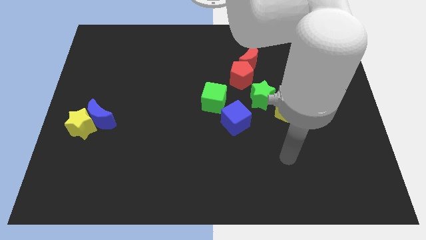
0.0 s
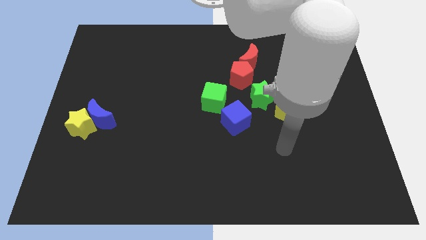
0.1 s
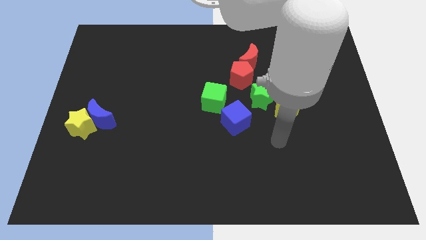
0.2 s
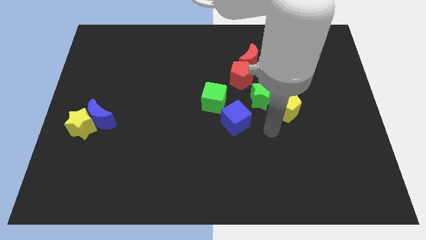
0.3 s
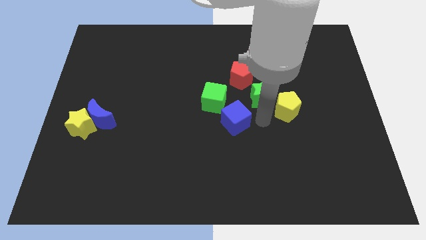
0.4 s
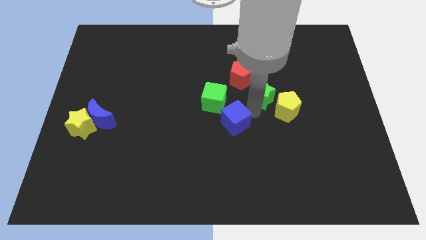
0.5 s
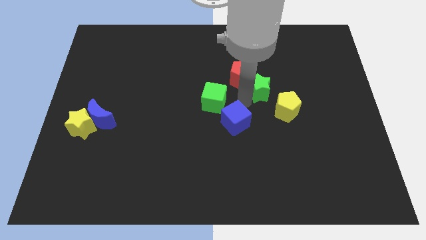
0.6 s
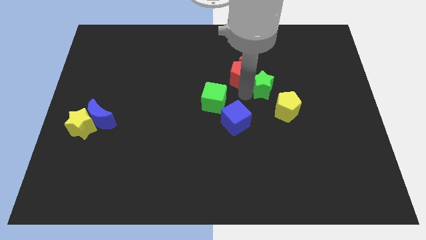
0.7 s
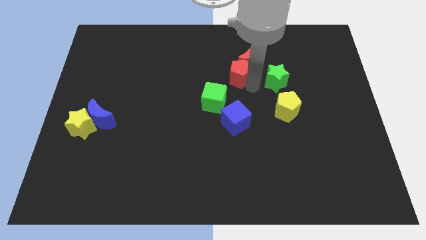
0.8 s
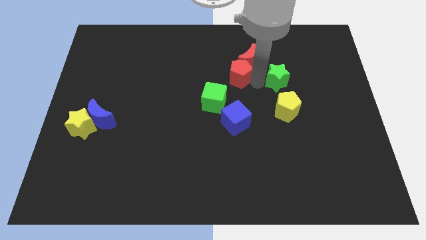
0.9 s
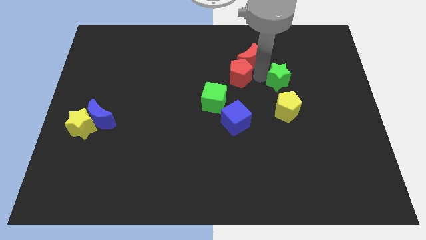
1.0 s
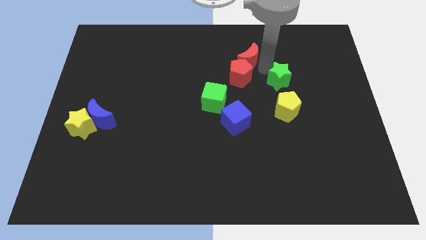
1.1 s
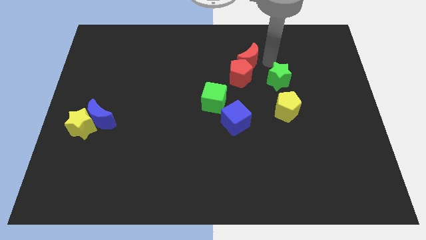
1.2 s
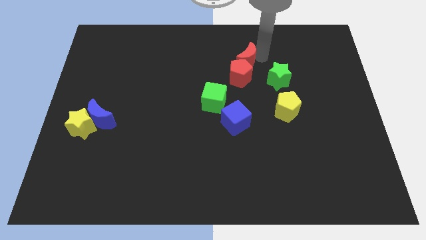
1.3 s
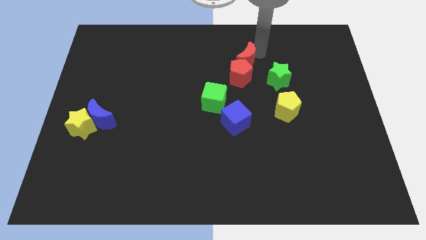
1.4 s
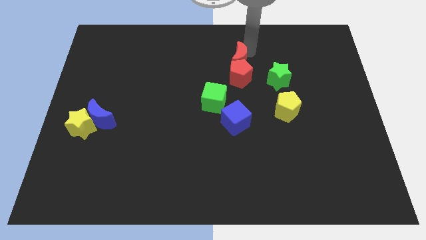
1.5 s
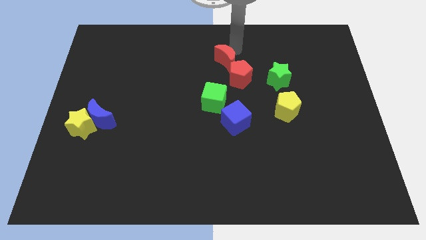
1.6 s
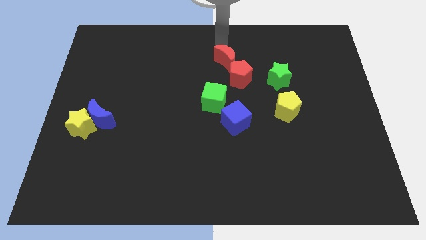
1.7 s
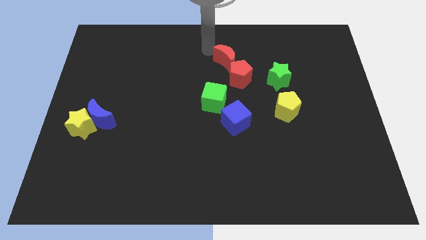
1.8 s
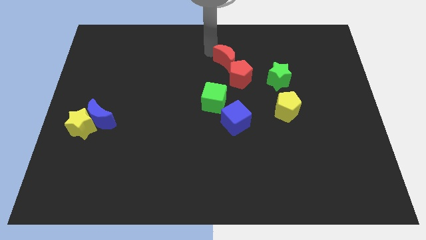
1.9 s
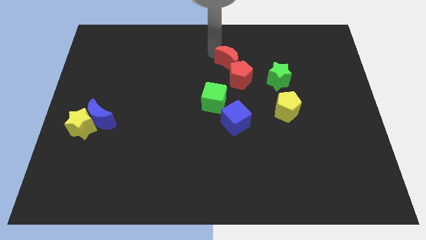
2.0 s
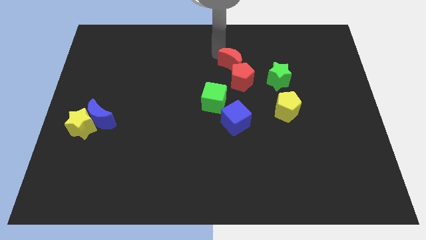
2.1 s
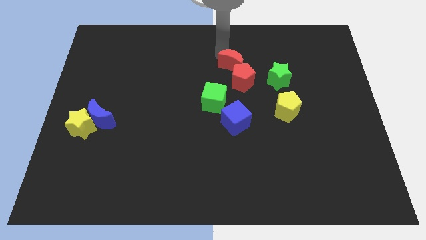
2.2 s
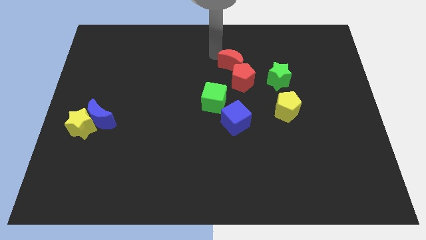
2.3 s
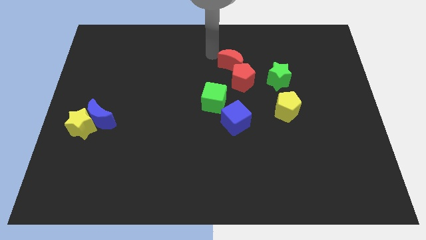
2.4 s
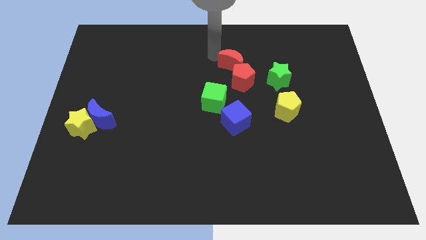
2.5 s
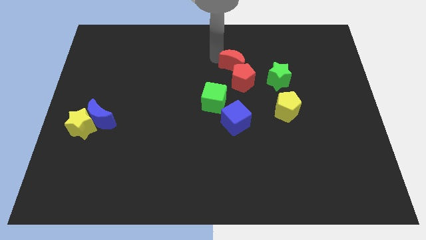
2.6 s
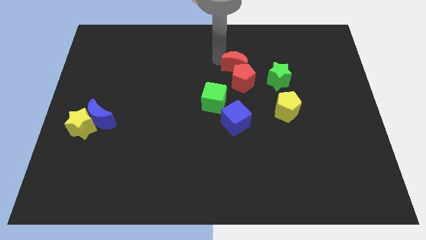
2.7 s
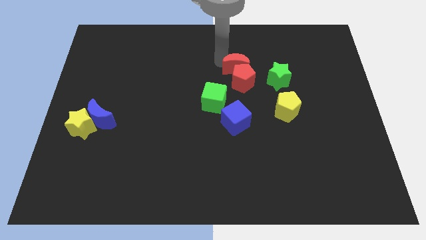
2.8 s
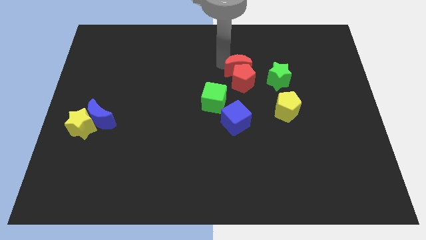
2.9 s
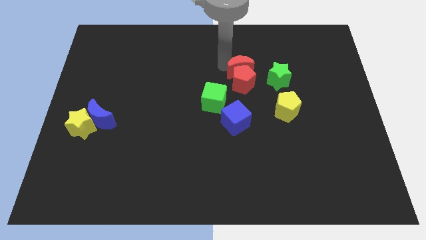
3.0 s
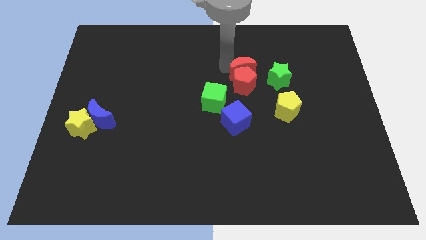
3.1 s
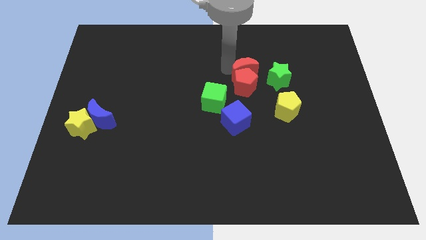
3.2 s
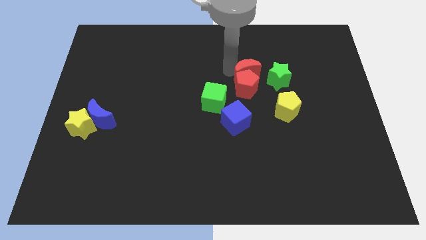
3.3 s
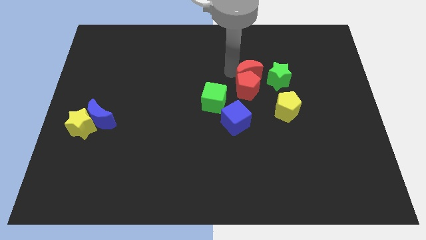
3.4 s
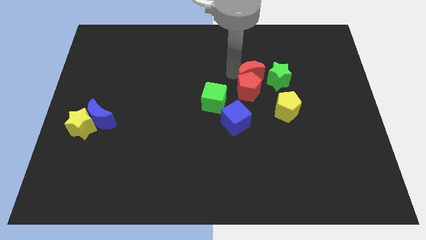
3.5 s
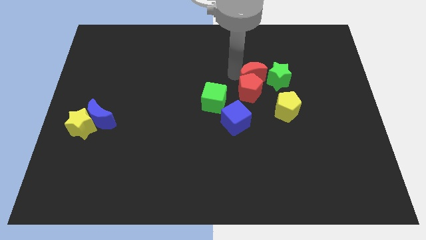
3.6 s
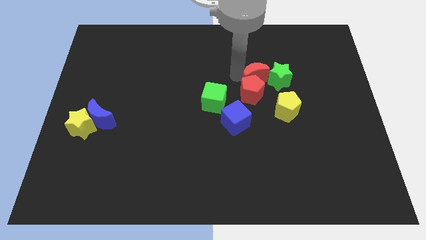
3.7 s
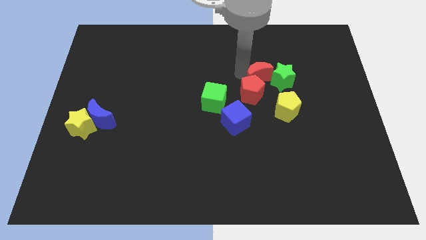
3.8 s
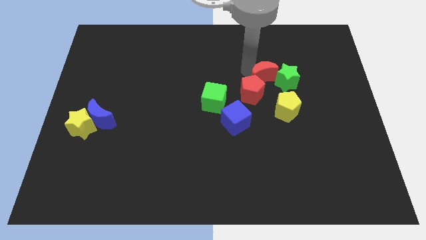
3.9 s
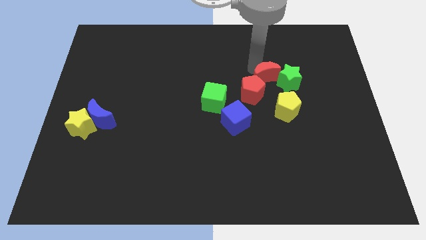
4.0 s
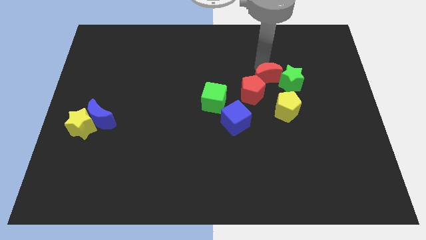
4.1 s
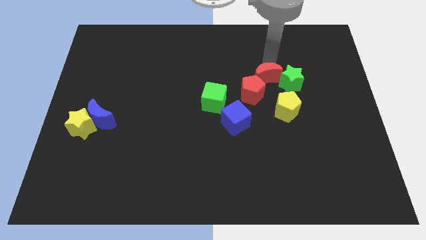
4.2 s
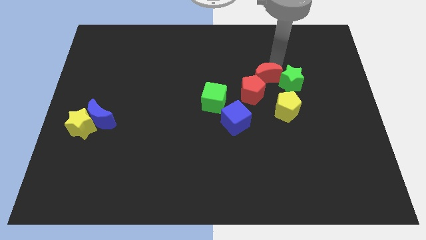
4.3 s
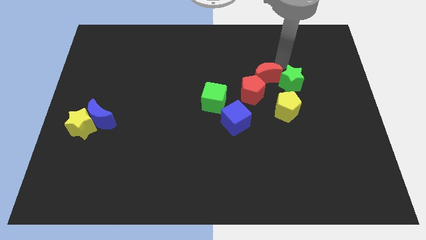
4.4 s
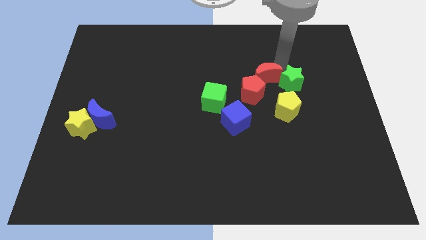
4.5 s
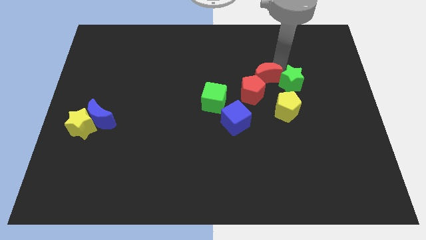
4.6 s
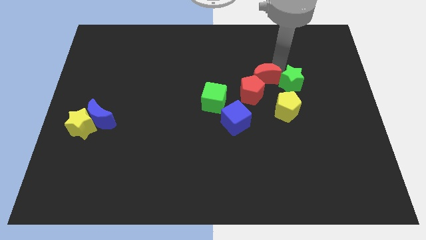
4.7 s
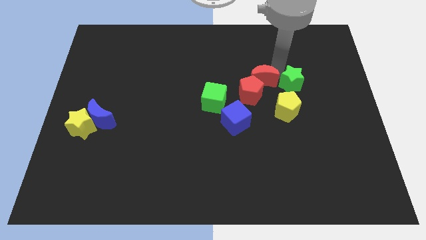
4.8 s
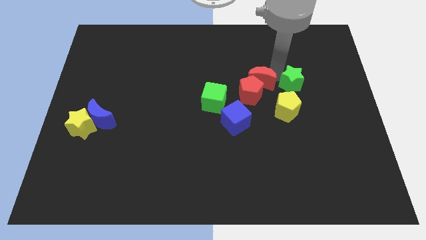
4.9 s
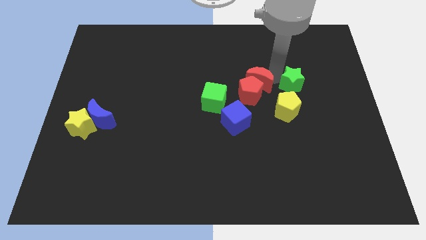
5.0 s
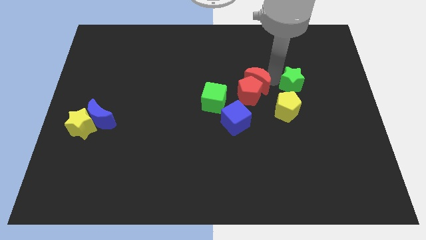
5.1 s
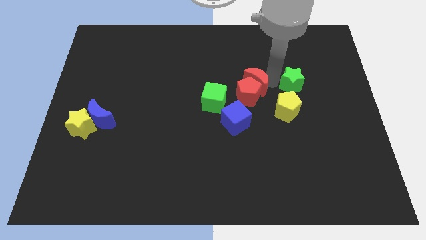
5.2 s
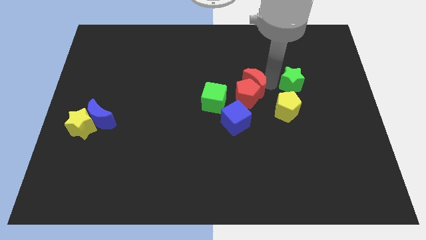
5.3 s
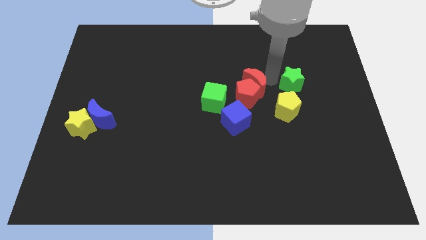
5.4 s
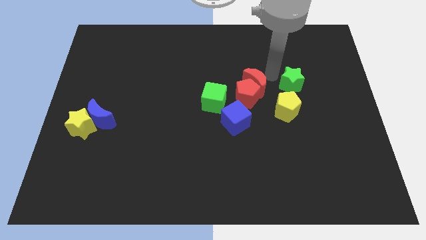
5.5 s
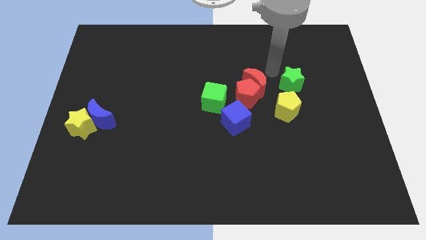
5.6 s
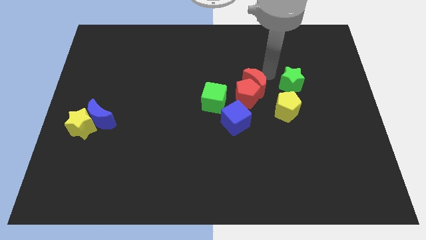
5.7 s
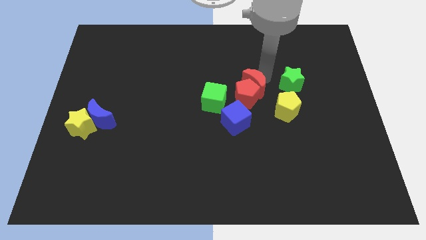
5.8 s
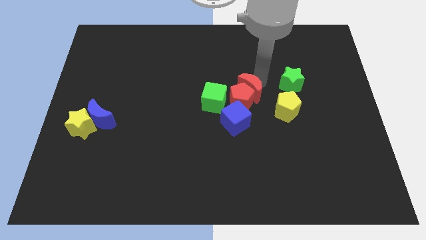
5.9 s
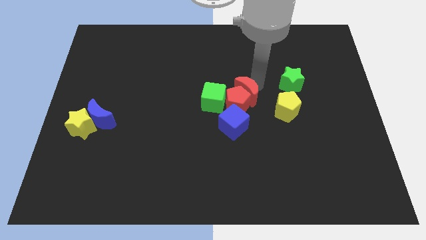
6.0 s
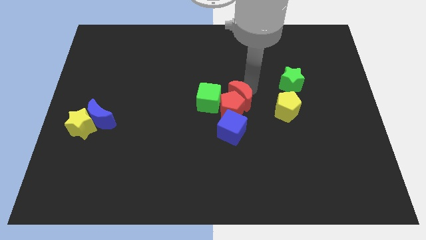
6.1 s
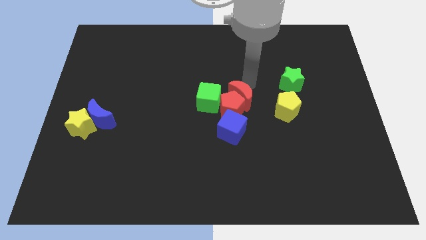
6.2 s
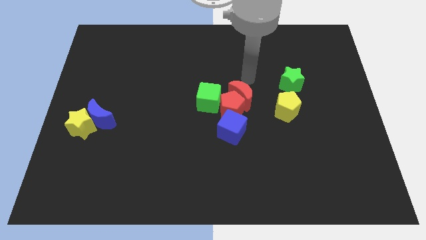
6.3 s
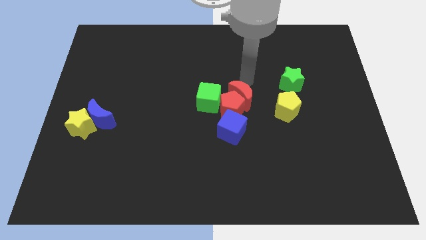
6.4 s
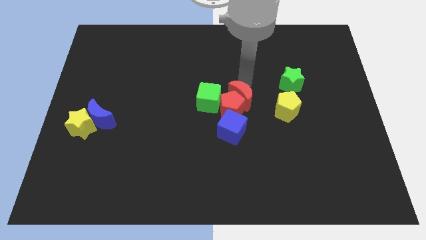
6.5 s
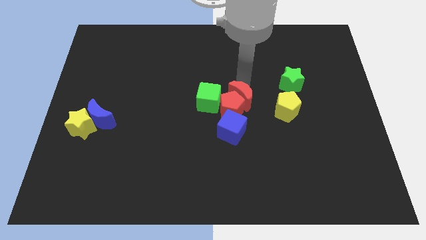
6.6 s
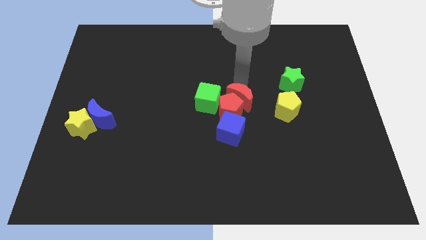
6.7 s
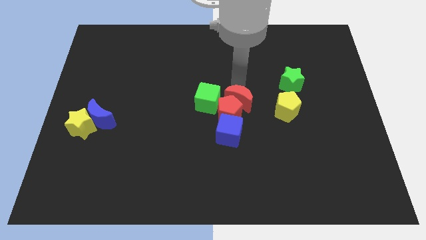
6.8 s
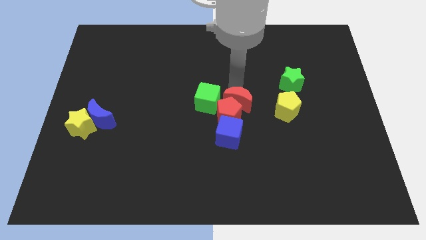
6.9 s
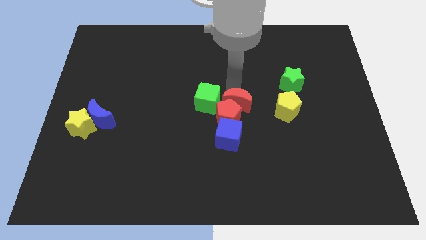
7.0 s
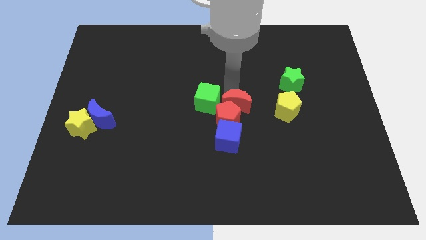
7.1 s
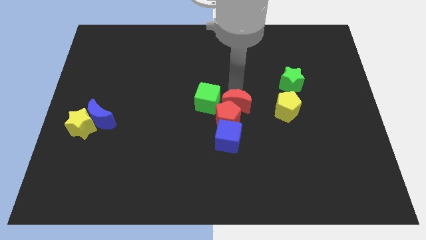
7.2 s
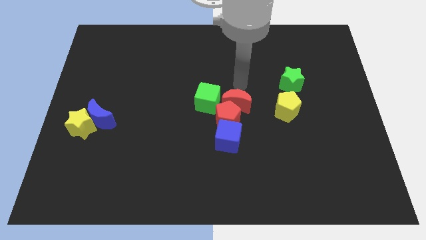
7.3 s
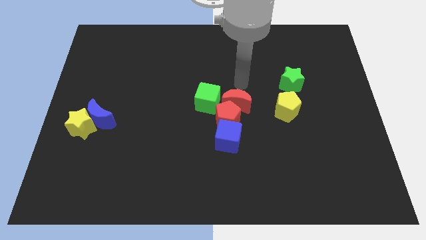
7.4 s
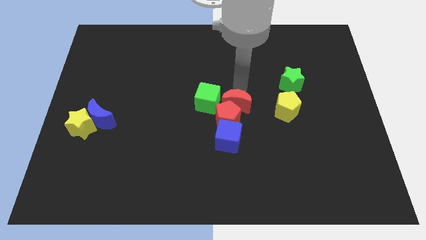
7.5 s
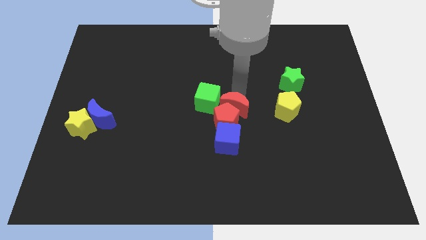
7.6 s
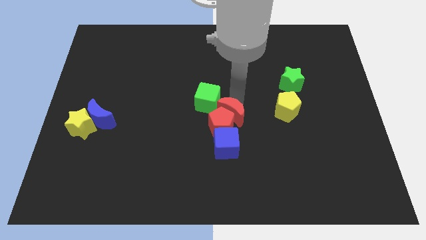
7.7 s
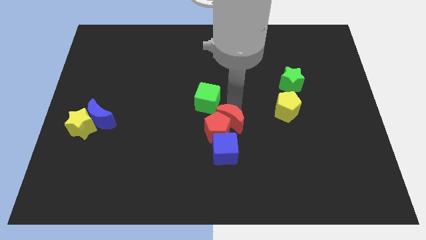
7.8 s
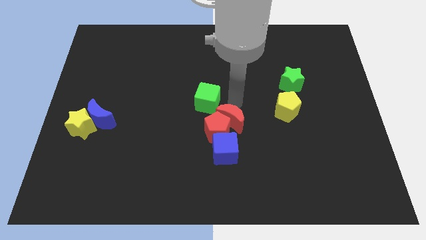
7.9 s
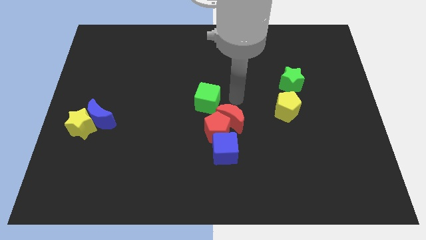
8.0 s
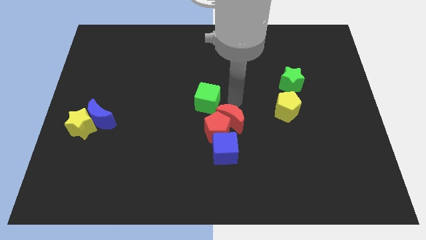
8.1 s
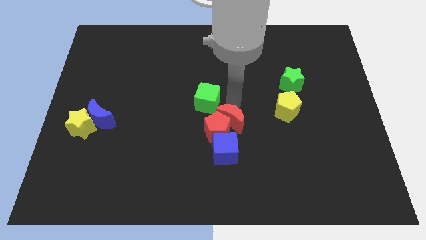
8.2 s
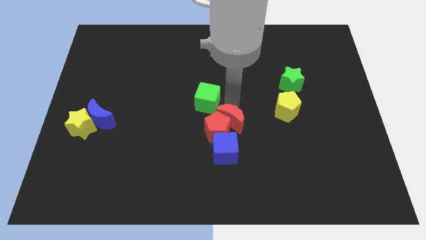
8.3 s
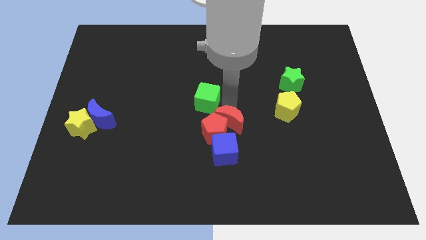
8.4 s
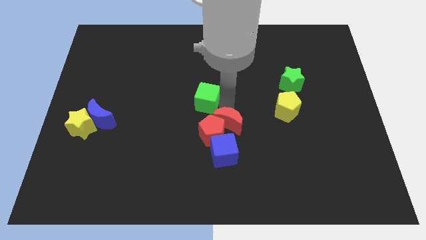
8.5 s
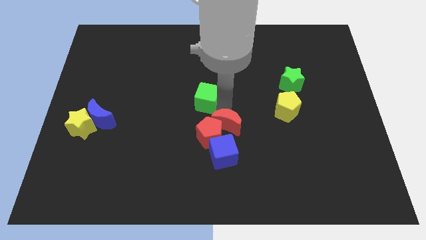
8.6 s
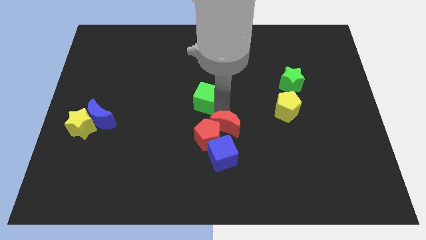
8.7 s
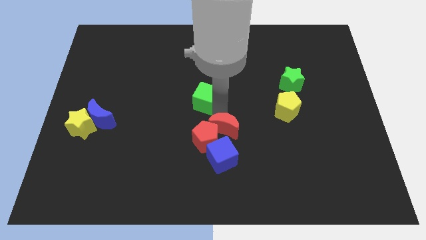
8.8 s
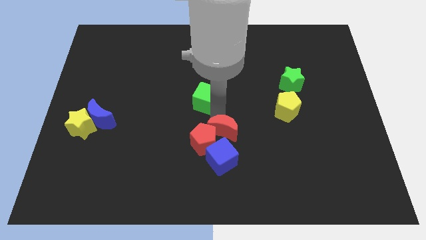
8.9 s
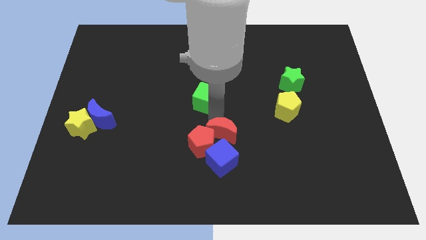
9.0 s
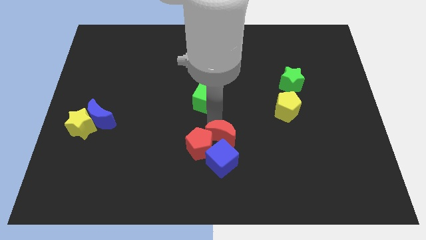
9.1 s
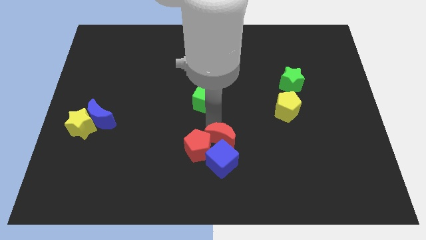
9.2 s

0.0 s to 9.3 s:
push the red moon next to the blue cube
